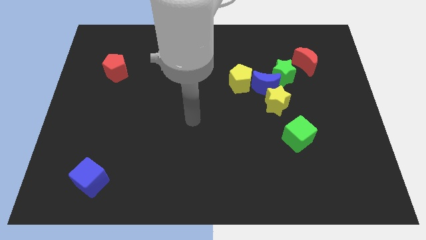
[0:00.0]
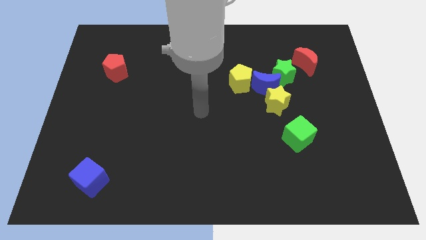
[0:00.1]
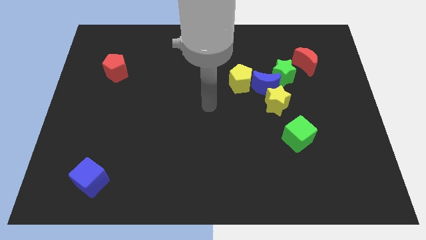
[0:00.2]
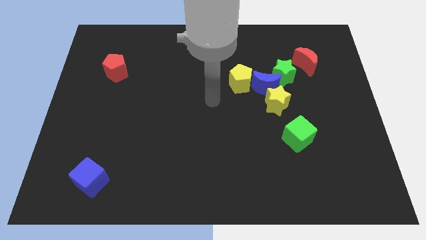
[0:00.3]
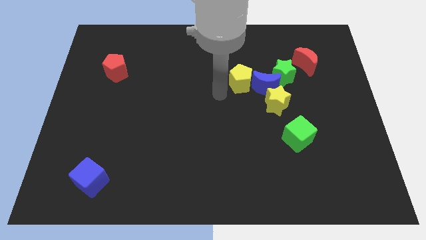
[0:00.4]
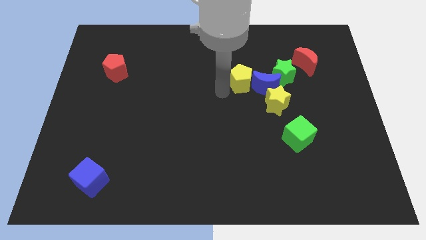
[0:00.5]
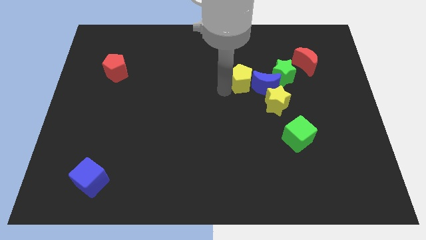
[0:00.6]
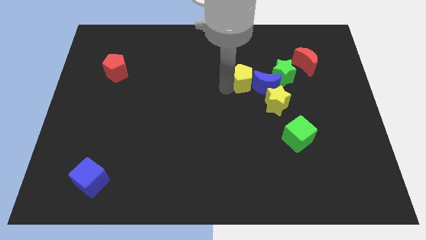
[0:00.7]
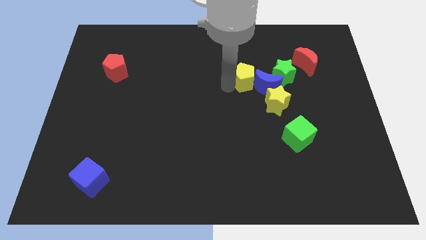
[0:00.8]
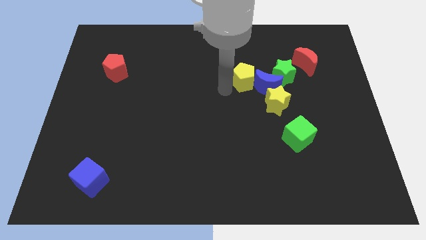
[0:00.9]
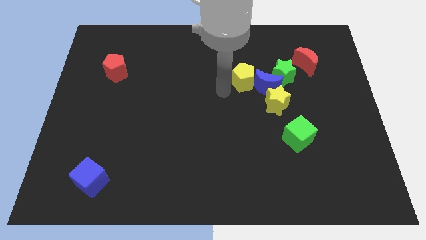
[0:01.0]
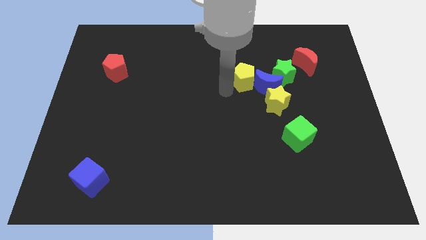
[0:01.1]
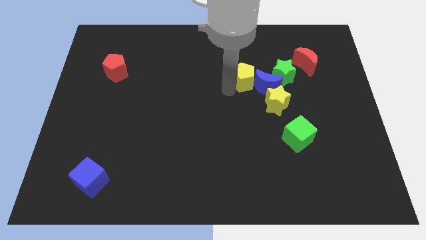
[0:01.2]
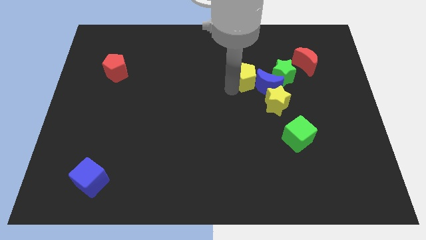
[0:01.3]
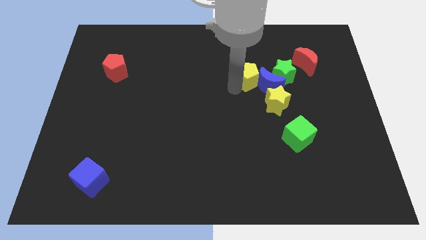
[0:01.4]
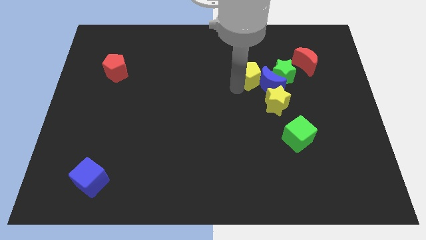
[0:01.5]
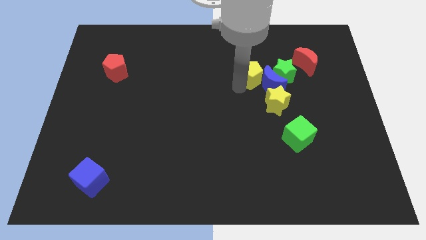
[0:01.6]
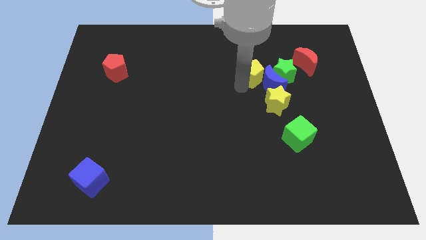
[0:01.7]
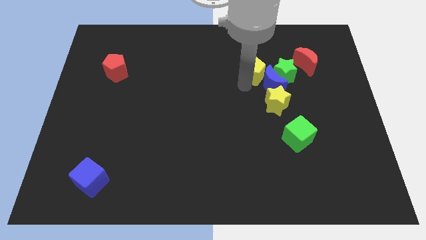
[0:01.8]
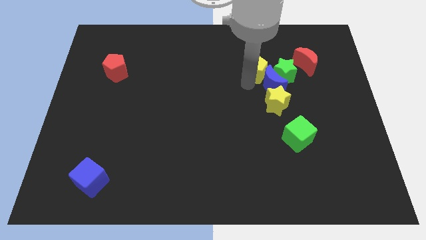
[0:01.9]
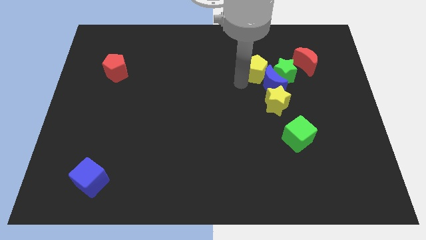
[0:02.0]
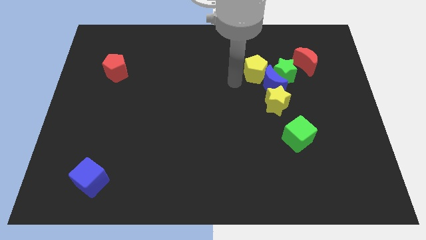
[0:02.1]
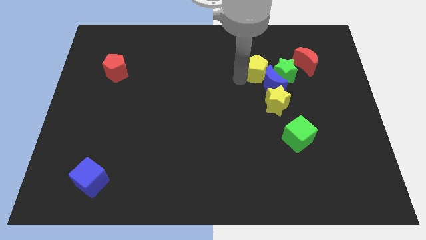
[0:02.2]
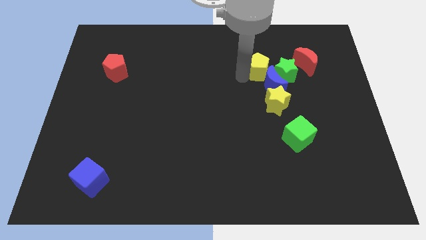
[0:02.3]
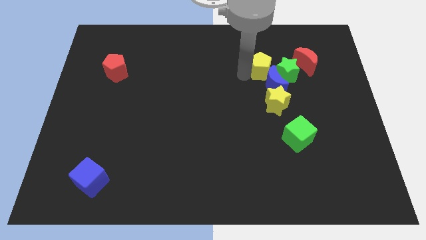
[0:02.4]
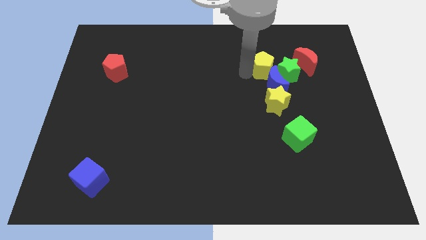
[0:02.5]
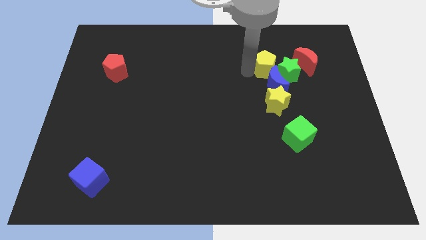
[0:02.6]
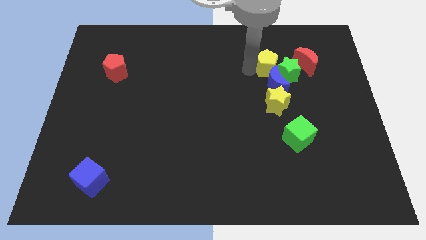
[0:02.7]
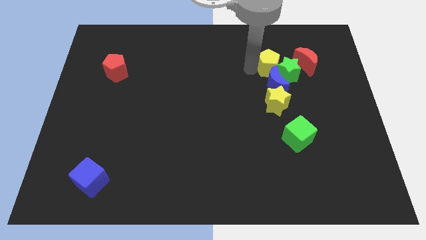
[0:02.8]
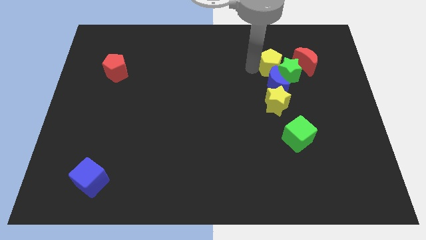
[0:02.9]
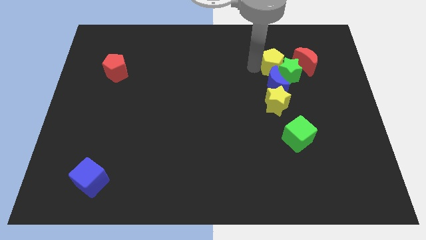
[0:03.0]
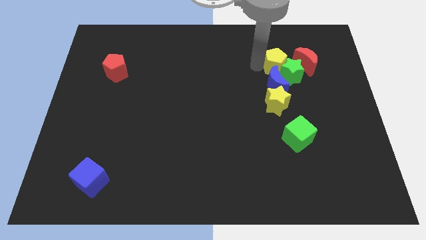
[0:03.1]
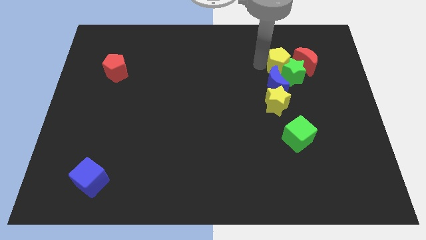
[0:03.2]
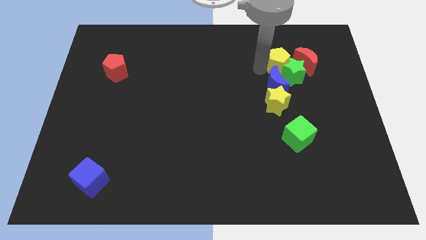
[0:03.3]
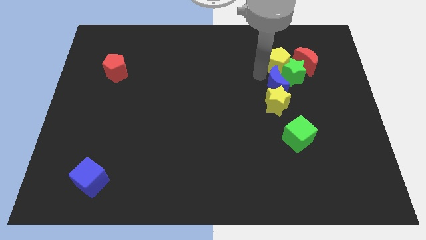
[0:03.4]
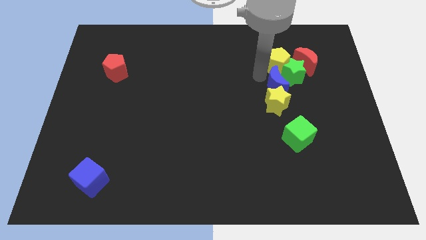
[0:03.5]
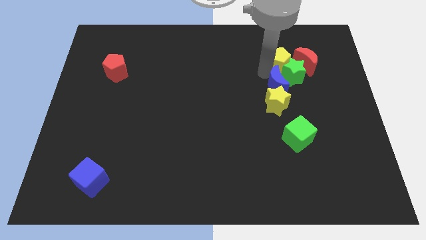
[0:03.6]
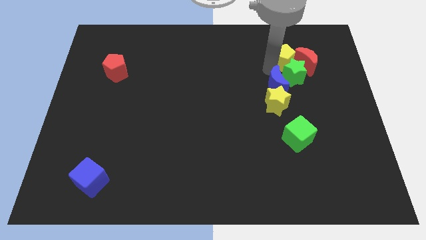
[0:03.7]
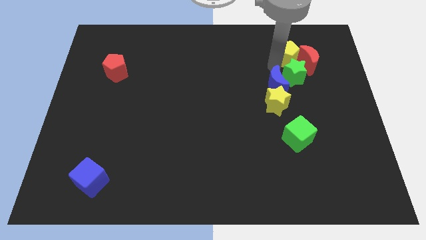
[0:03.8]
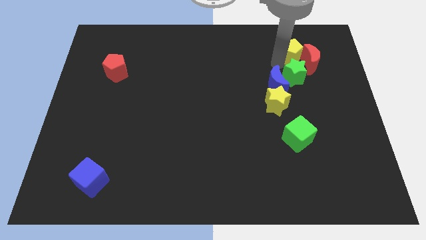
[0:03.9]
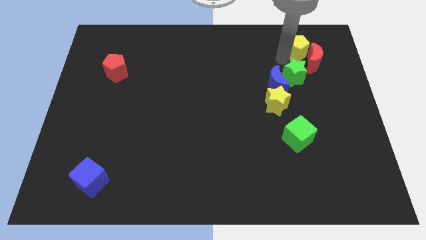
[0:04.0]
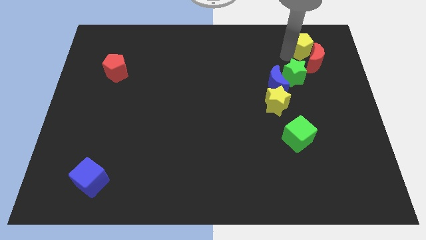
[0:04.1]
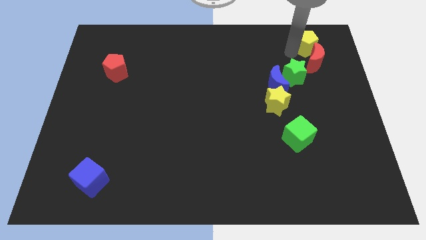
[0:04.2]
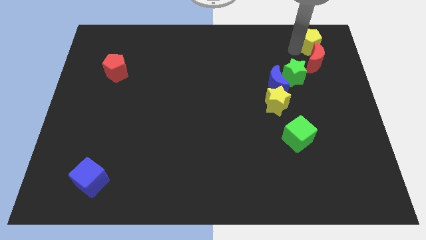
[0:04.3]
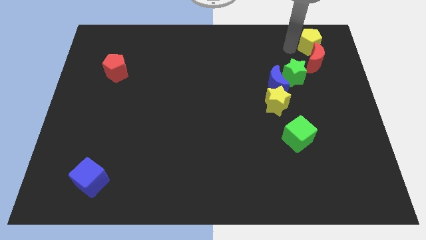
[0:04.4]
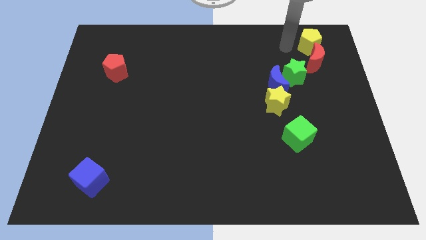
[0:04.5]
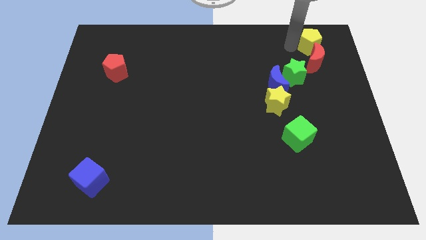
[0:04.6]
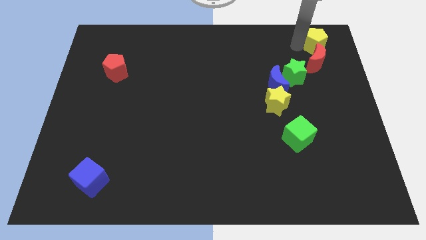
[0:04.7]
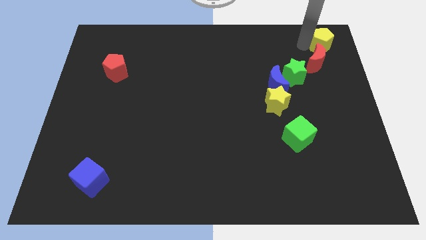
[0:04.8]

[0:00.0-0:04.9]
push the yellow pentagon to the upper right corner

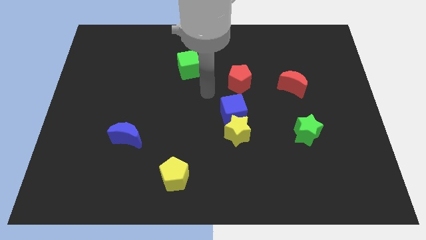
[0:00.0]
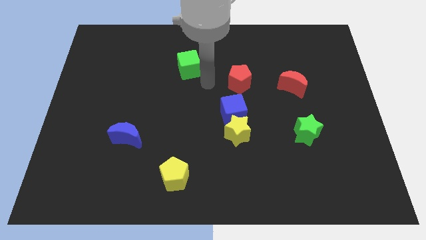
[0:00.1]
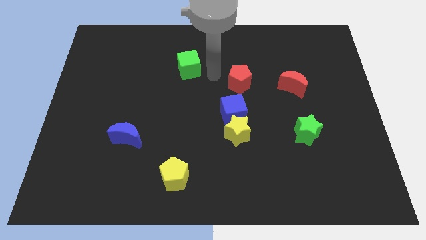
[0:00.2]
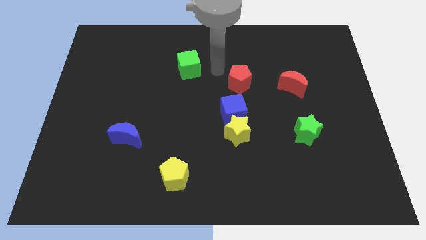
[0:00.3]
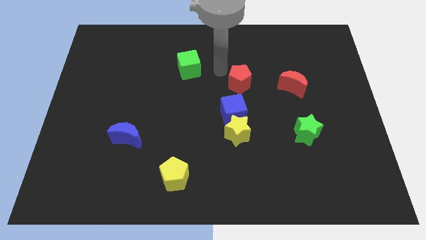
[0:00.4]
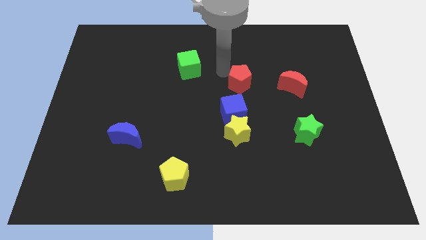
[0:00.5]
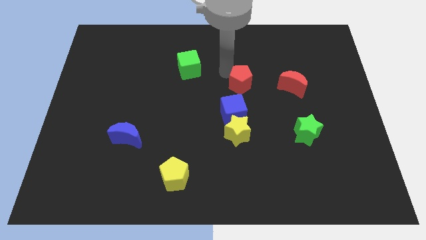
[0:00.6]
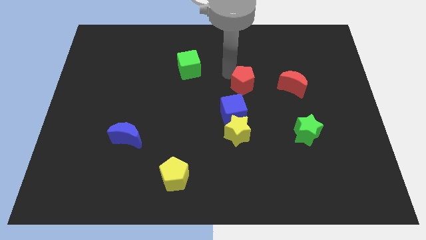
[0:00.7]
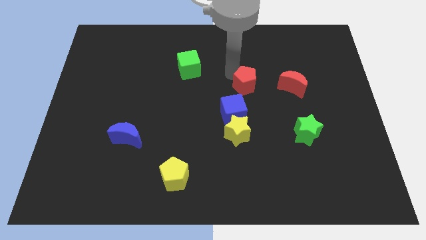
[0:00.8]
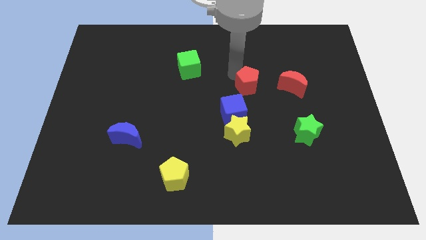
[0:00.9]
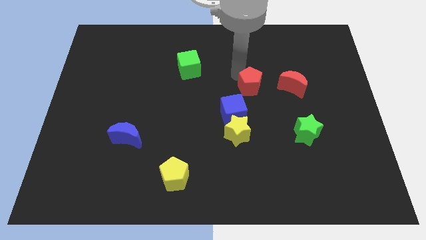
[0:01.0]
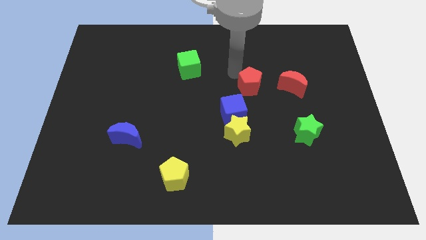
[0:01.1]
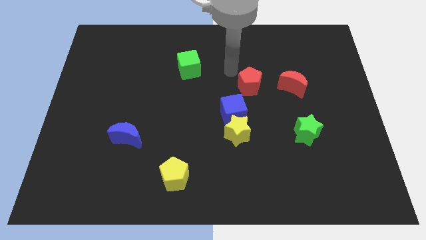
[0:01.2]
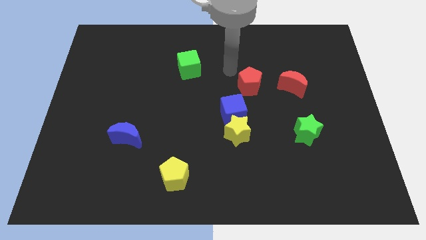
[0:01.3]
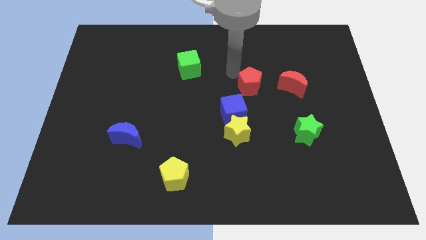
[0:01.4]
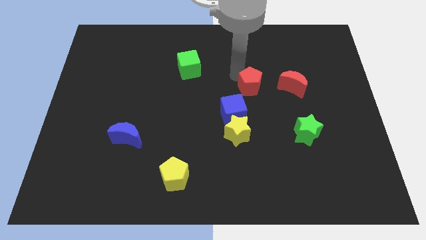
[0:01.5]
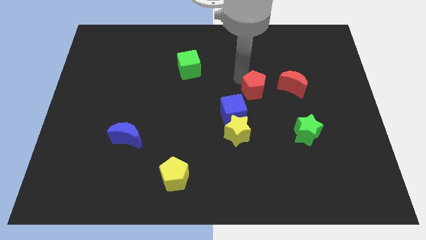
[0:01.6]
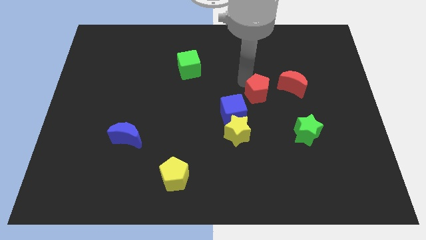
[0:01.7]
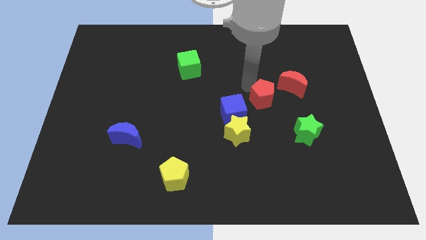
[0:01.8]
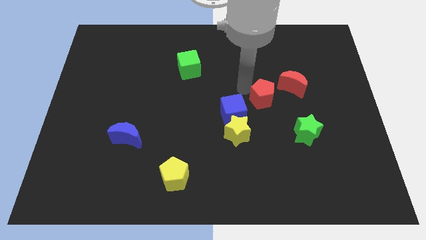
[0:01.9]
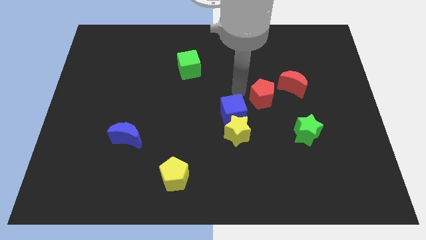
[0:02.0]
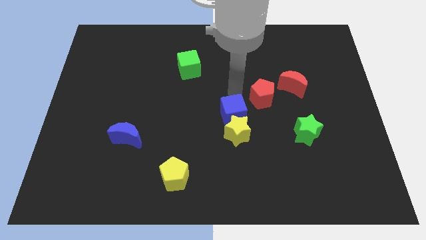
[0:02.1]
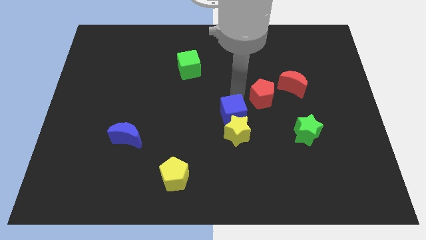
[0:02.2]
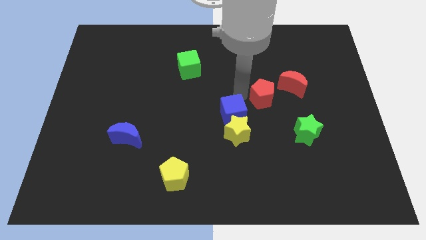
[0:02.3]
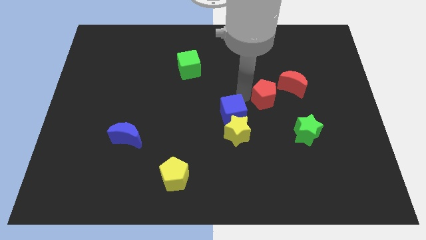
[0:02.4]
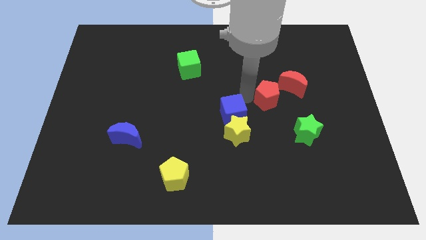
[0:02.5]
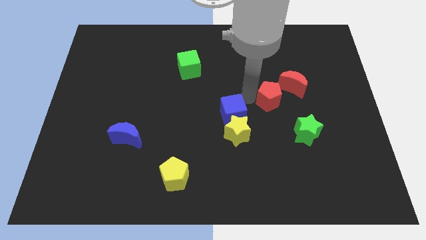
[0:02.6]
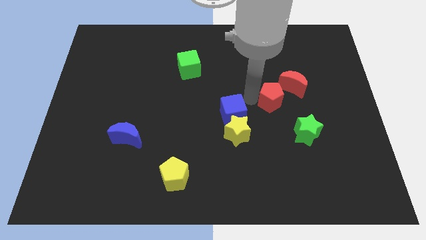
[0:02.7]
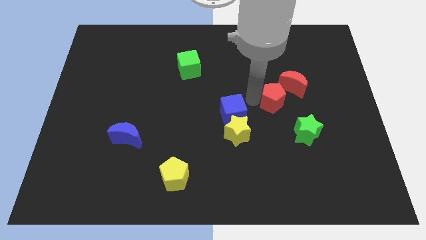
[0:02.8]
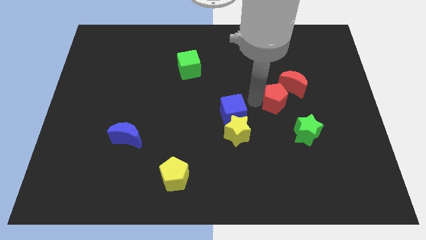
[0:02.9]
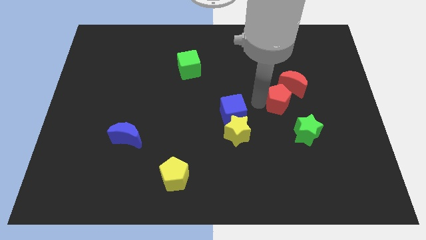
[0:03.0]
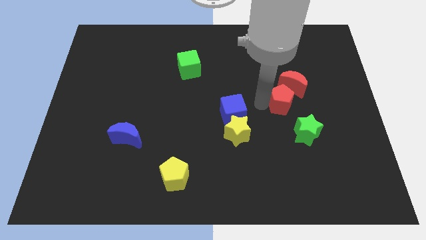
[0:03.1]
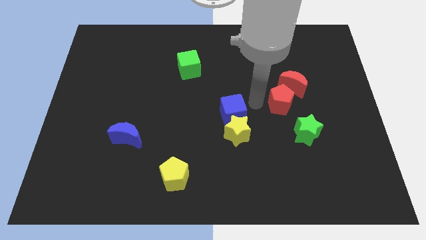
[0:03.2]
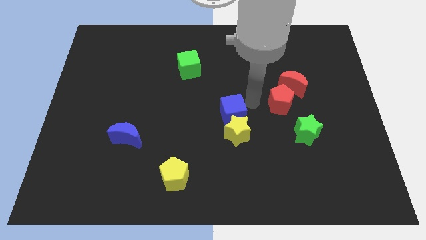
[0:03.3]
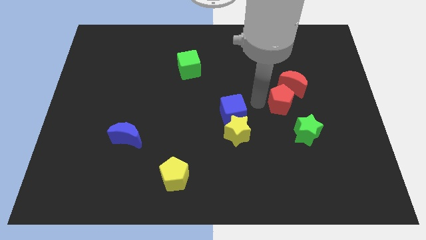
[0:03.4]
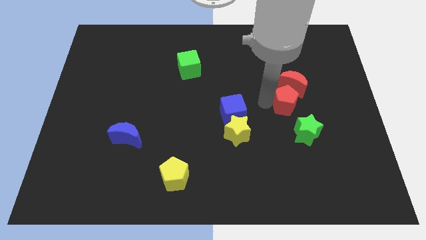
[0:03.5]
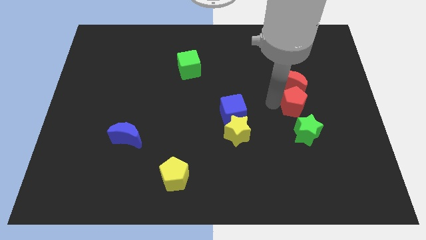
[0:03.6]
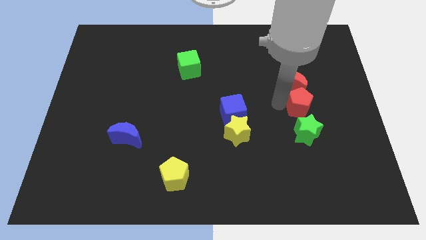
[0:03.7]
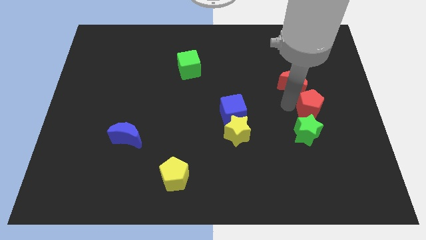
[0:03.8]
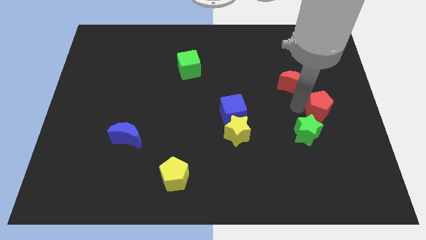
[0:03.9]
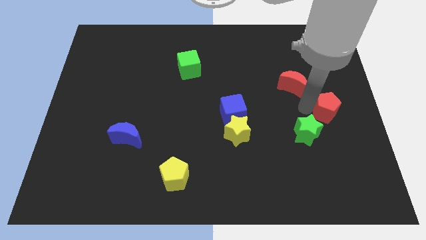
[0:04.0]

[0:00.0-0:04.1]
slide the red pentagon to the center right
